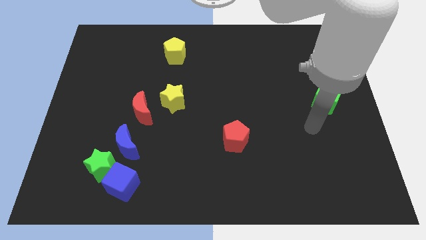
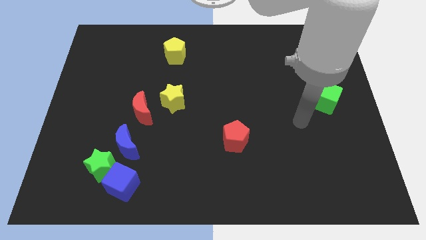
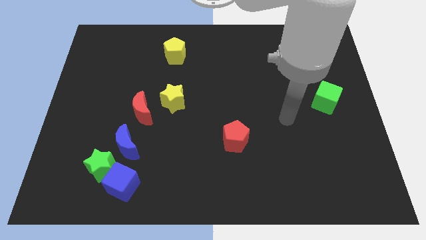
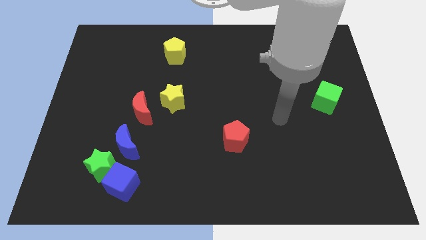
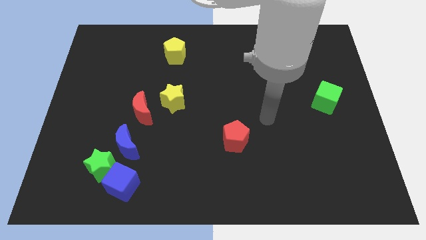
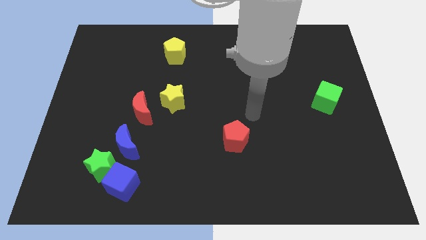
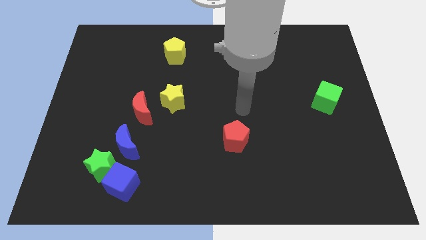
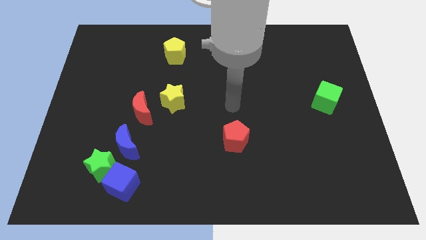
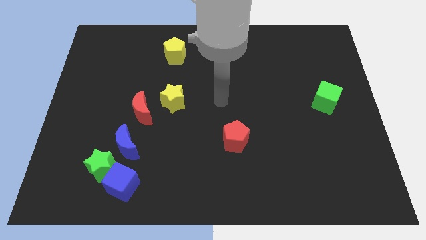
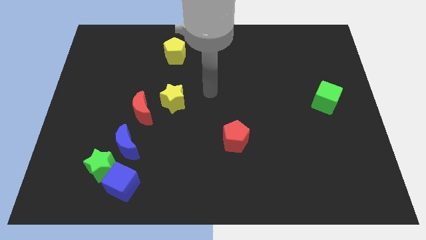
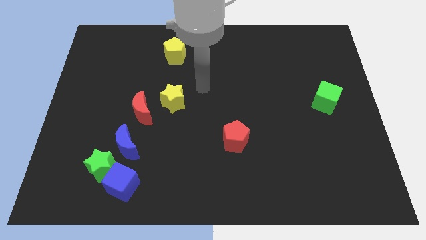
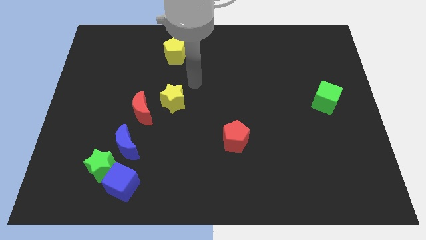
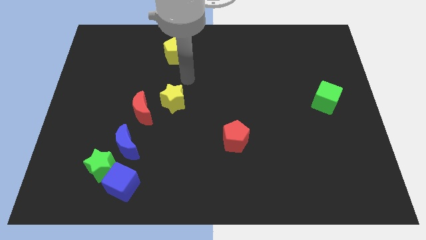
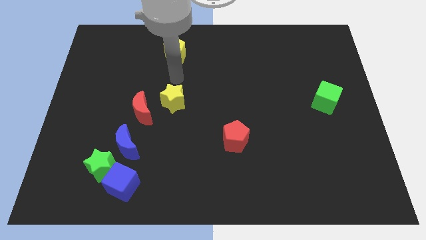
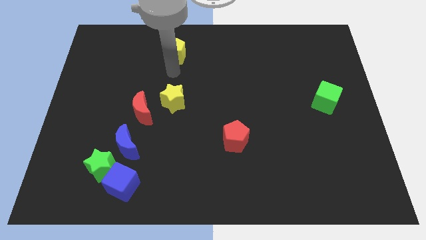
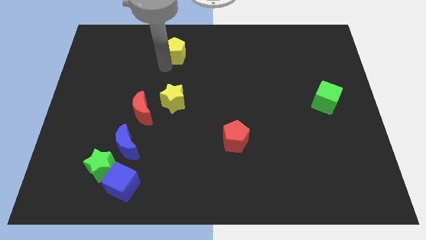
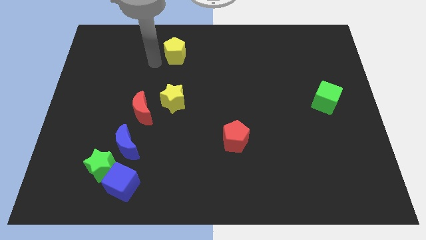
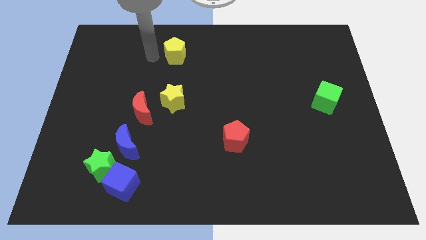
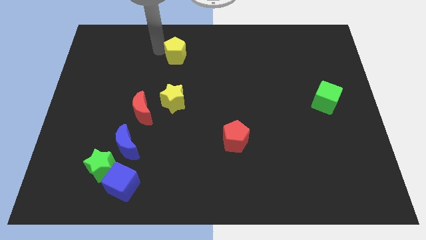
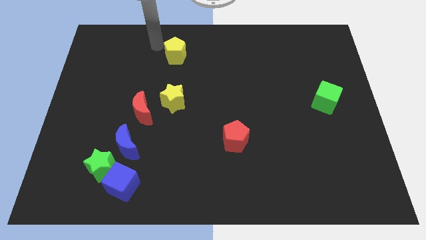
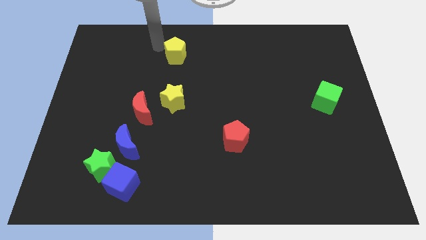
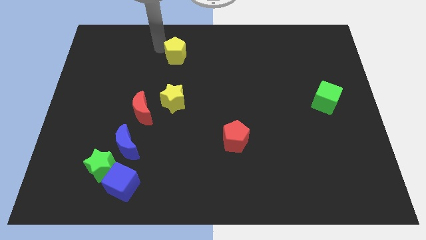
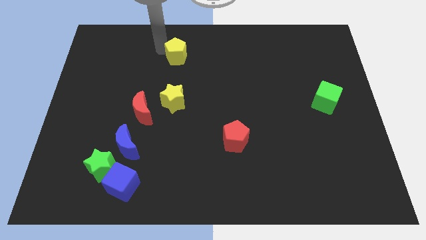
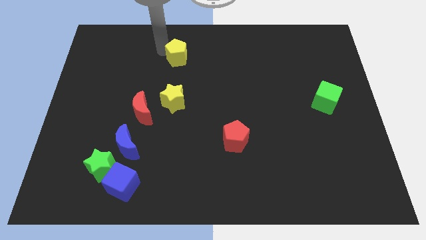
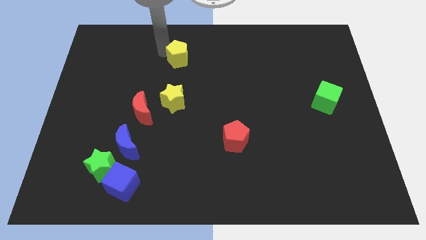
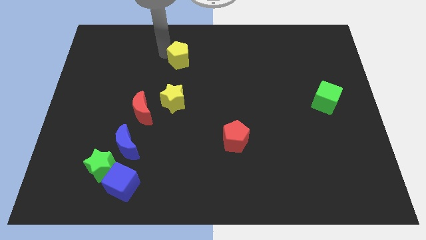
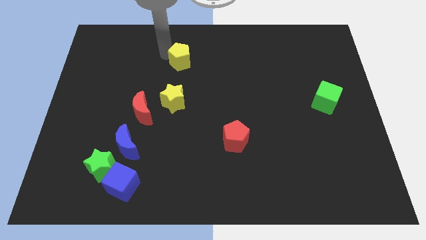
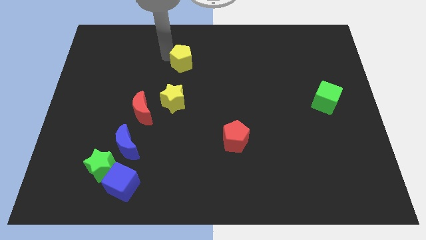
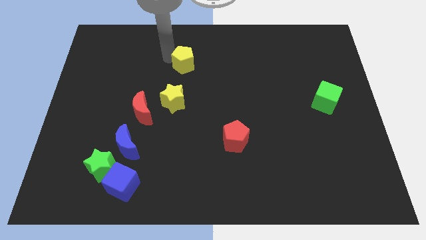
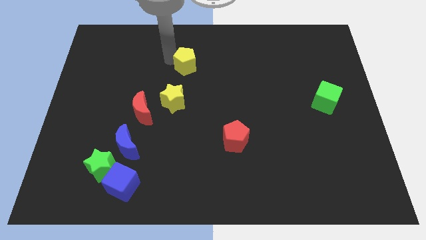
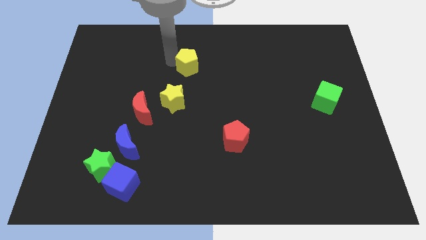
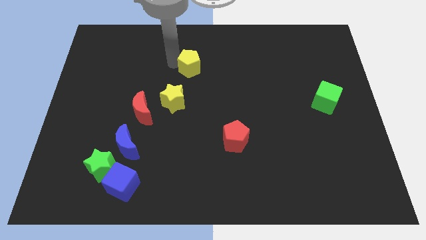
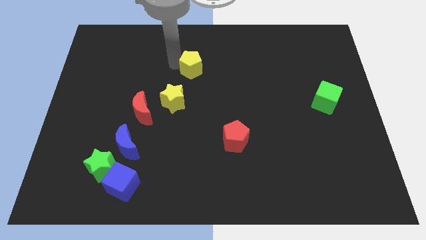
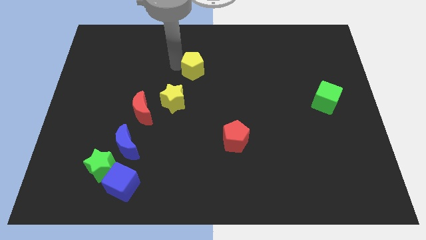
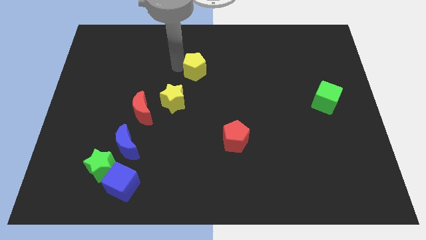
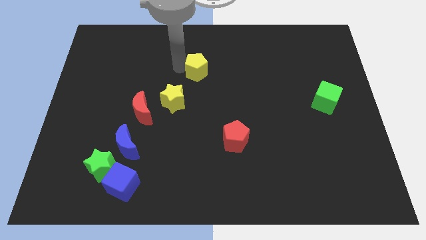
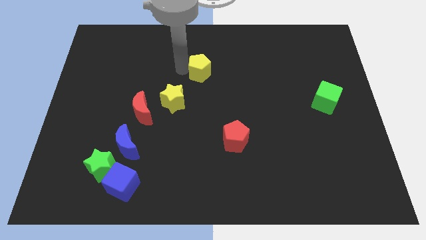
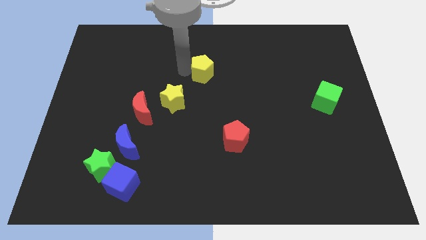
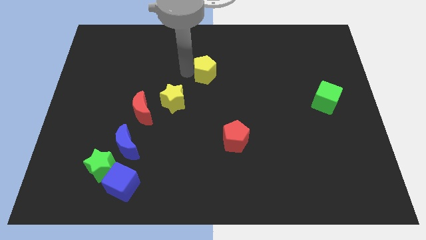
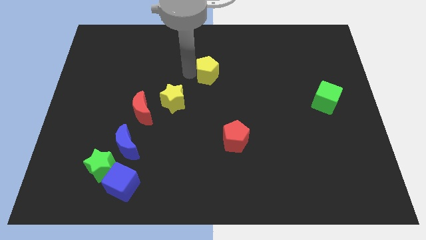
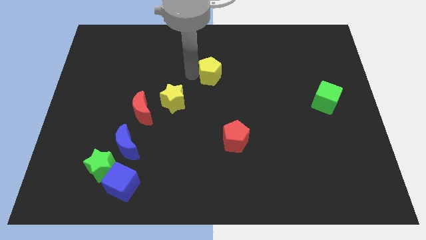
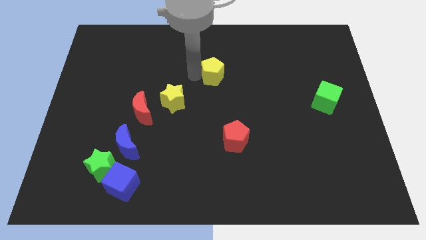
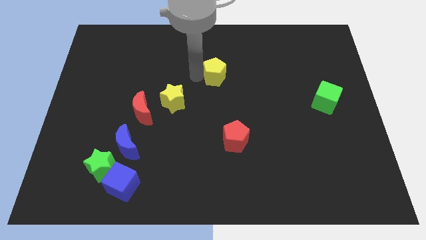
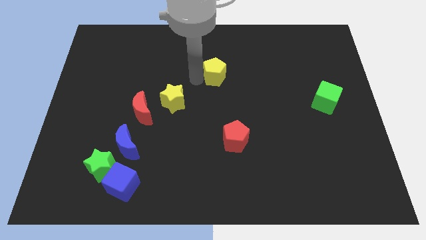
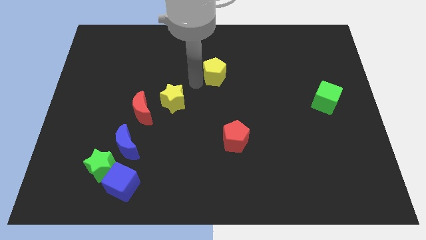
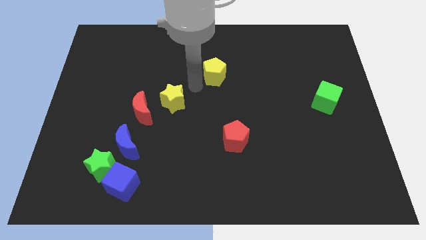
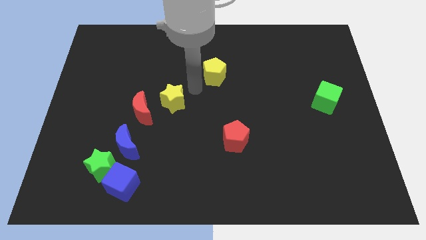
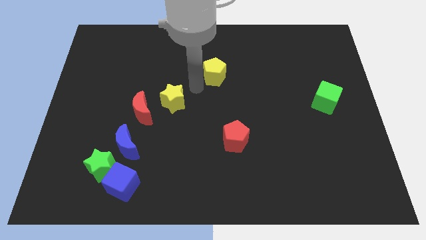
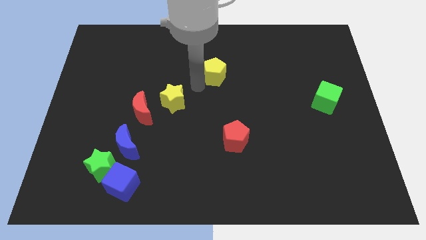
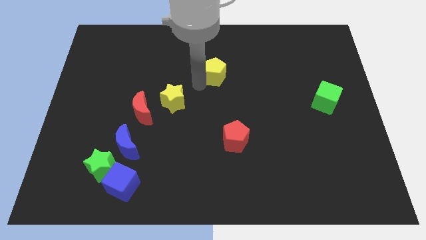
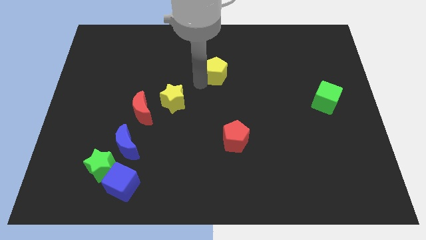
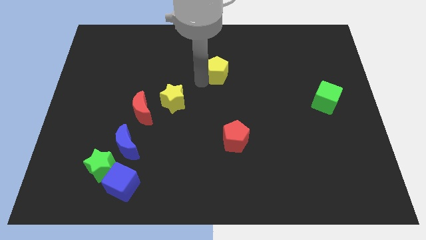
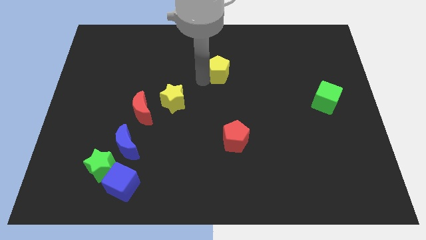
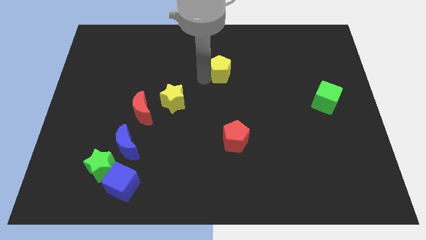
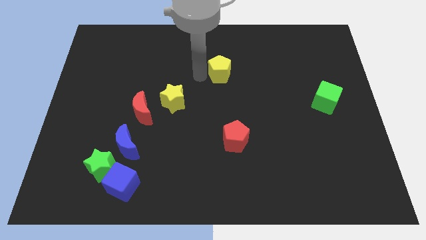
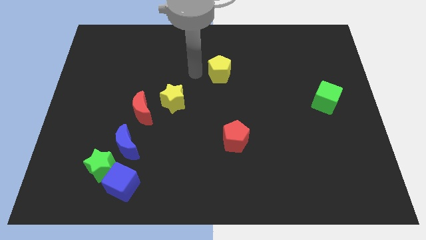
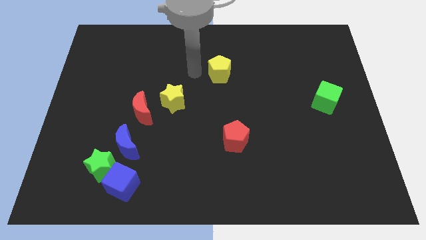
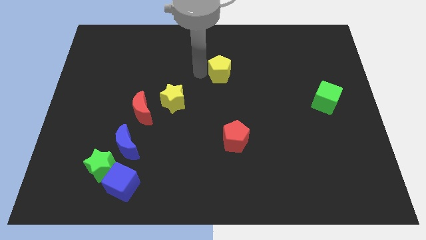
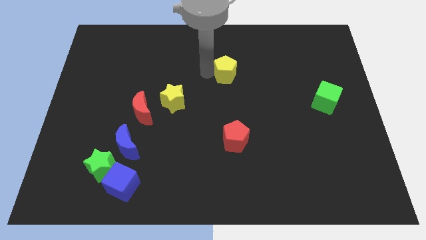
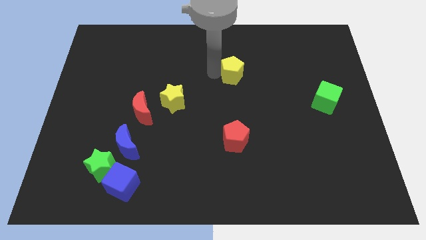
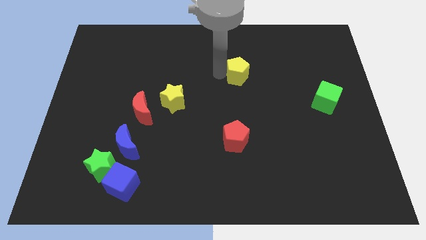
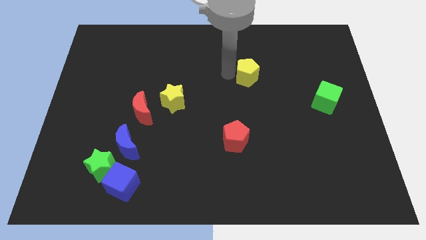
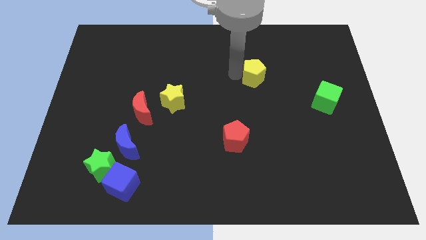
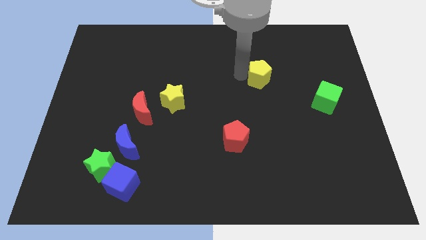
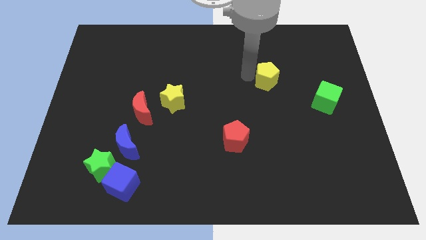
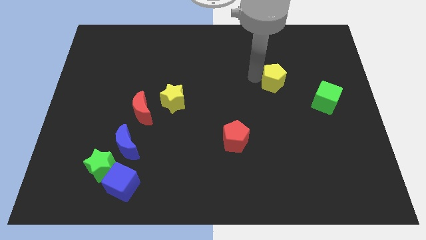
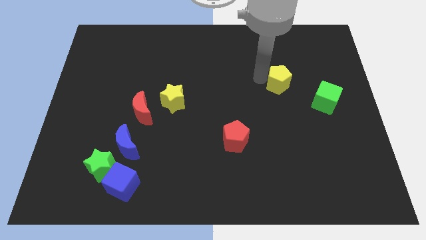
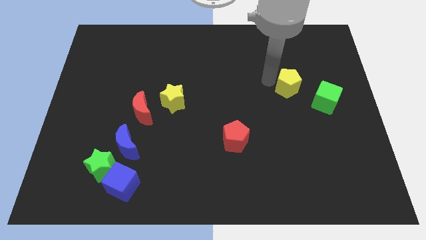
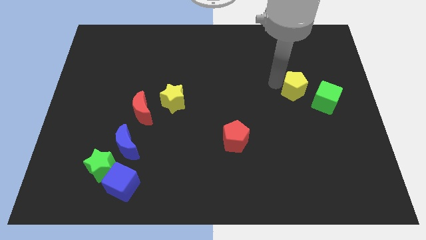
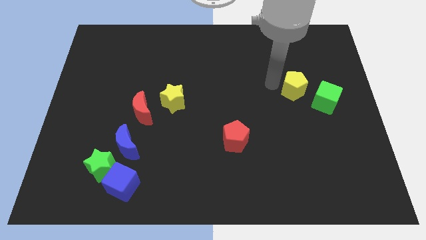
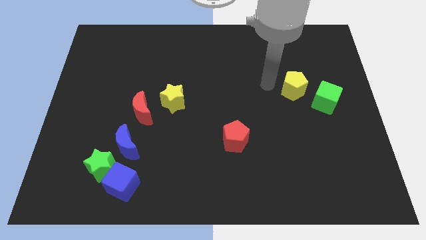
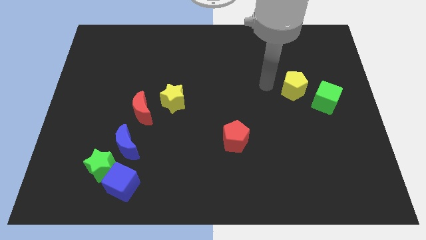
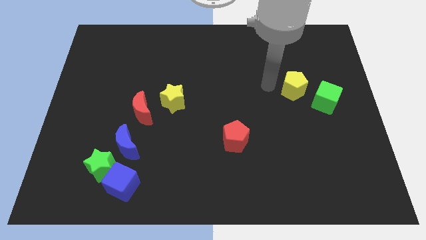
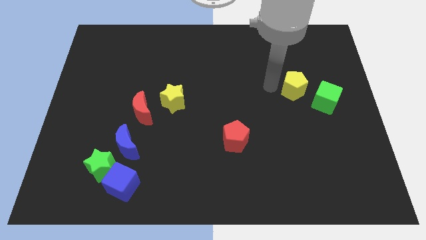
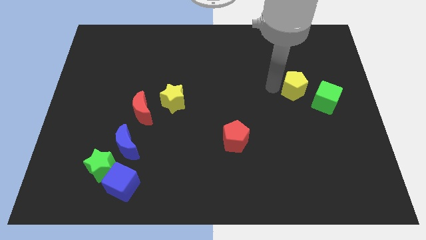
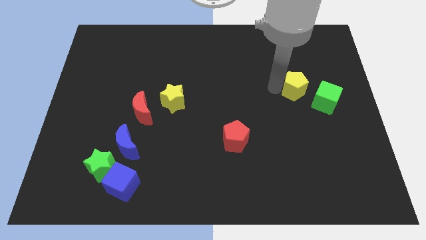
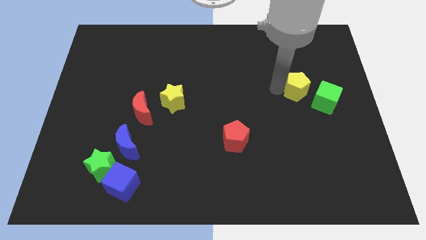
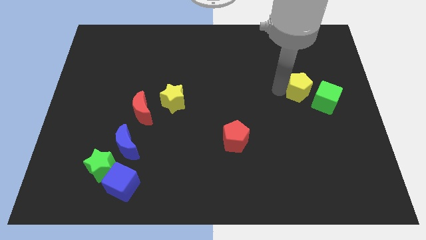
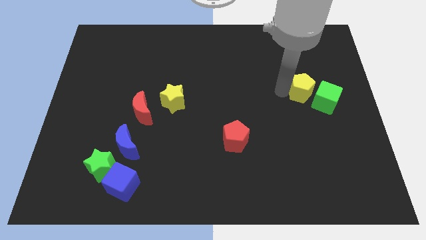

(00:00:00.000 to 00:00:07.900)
move the yellow pentagon close to the green cube
